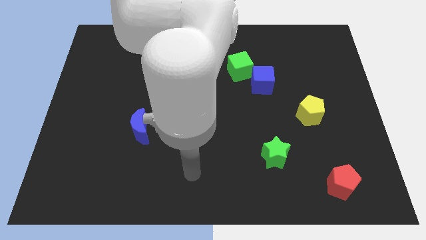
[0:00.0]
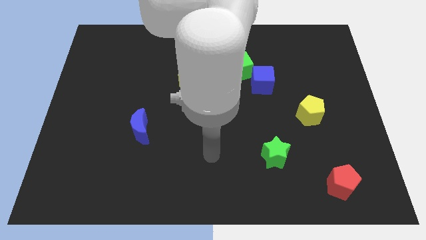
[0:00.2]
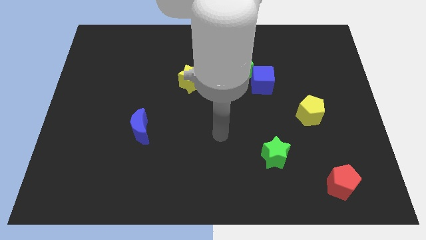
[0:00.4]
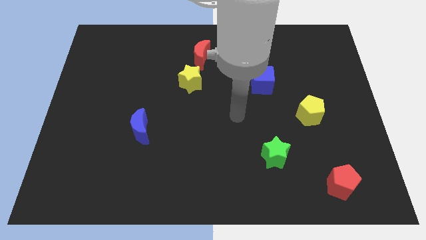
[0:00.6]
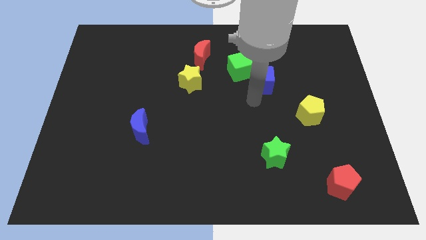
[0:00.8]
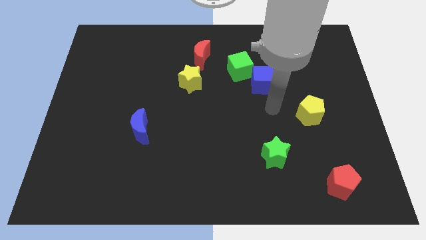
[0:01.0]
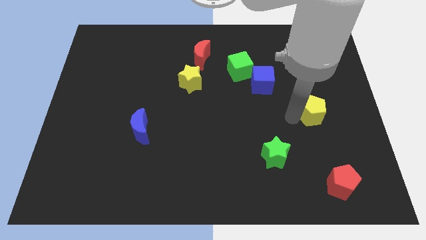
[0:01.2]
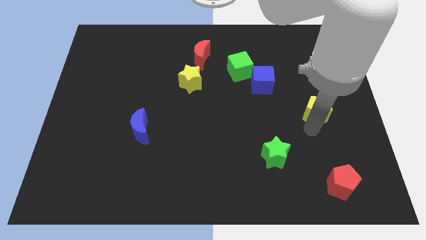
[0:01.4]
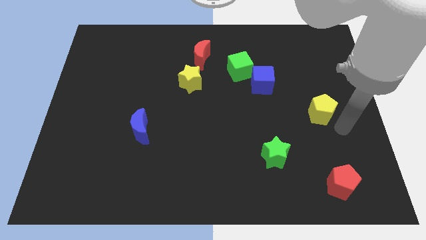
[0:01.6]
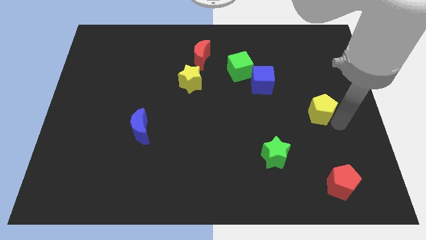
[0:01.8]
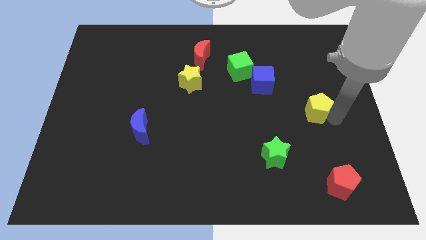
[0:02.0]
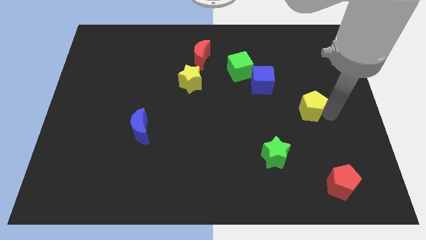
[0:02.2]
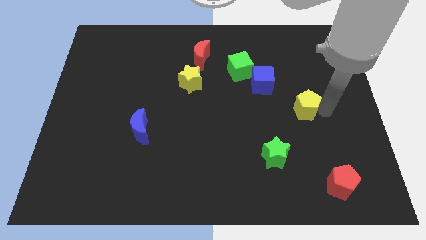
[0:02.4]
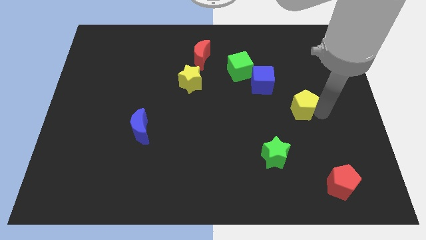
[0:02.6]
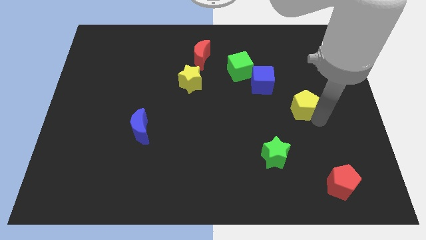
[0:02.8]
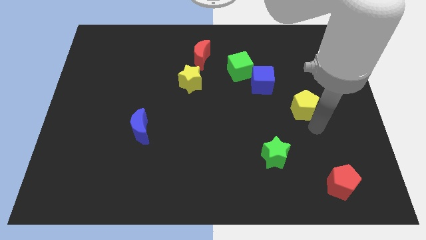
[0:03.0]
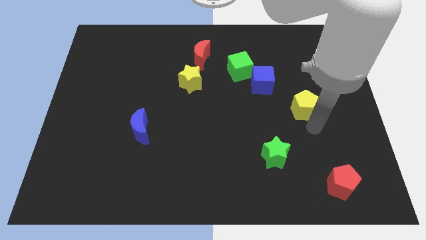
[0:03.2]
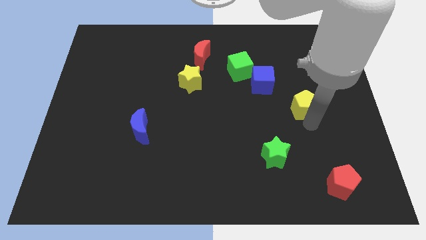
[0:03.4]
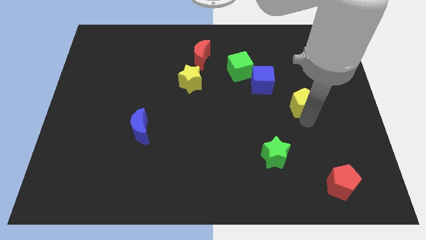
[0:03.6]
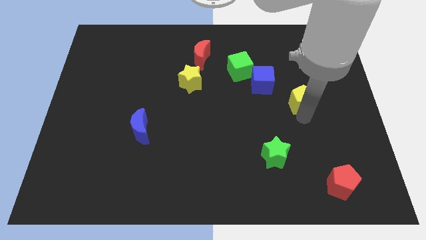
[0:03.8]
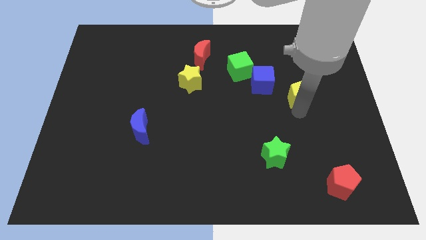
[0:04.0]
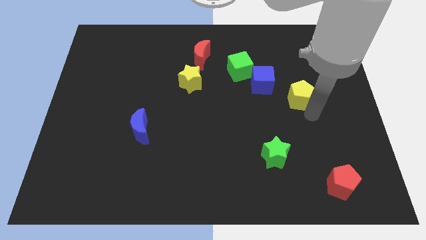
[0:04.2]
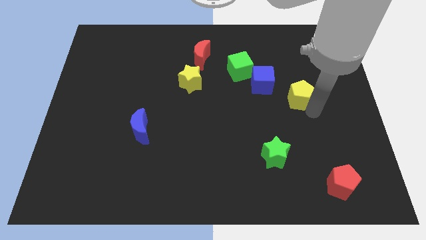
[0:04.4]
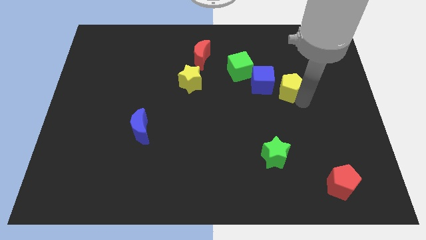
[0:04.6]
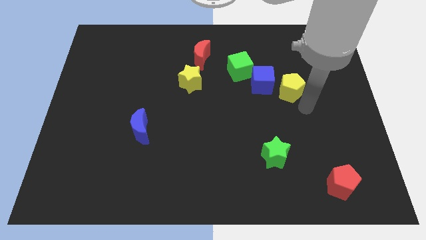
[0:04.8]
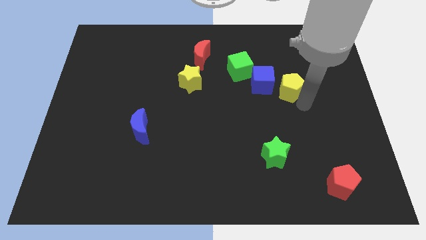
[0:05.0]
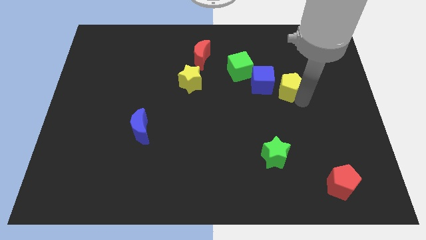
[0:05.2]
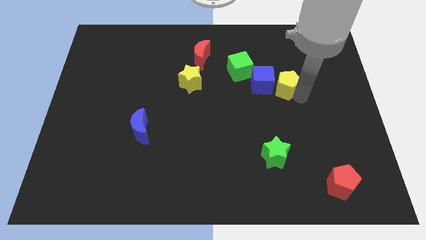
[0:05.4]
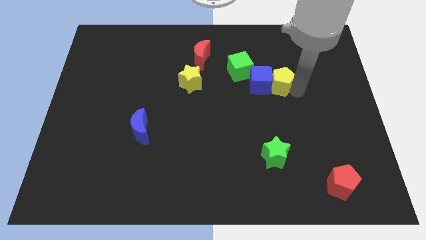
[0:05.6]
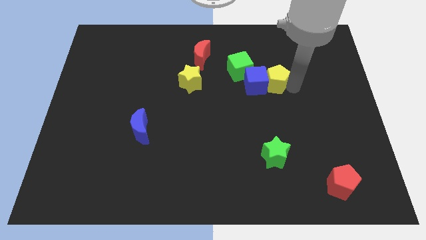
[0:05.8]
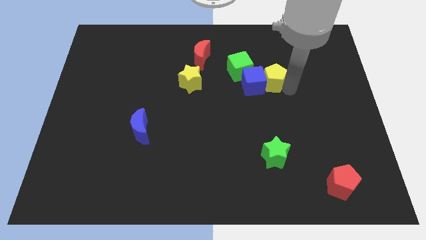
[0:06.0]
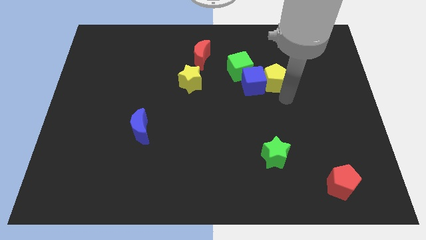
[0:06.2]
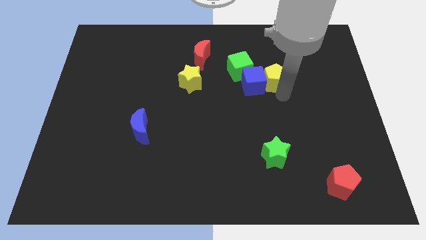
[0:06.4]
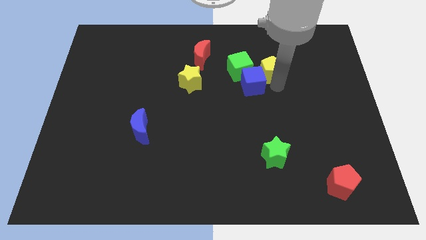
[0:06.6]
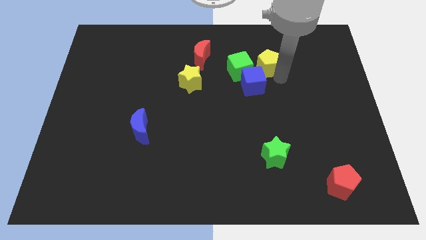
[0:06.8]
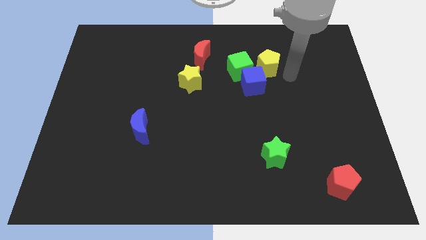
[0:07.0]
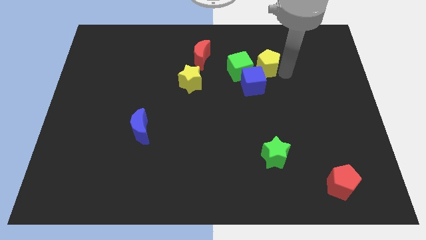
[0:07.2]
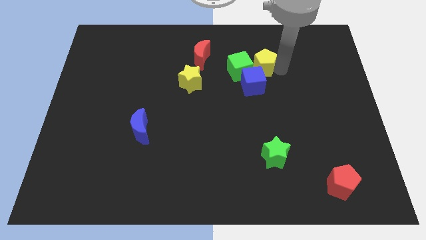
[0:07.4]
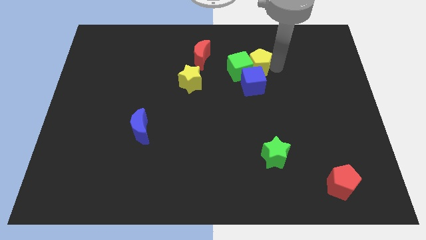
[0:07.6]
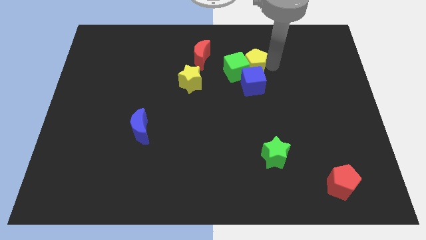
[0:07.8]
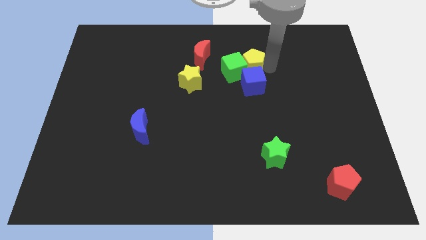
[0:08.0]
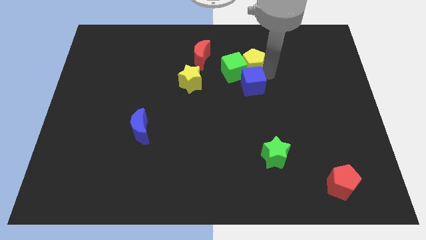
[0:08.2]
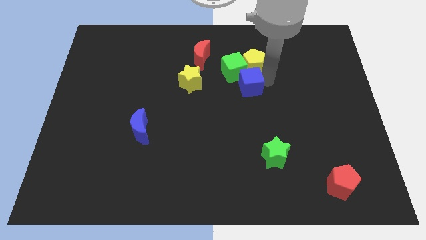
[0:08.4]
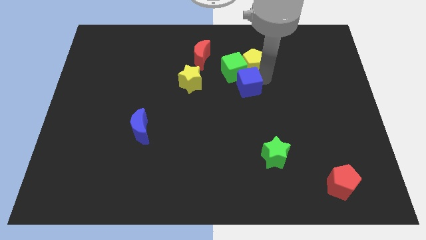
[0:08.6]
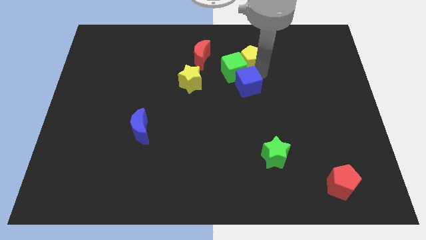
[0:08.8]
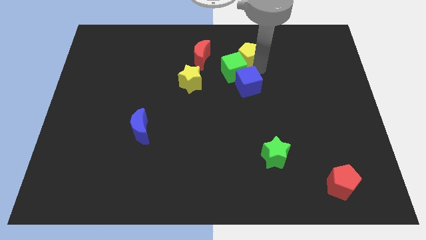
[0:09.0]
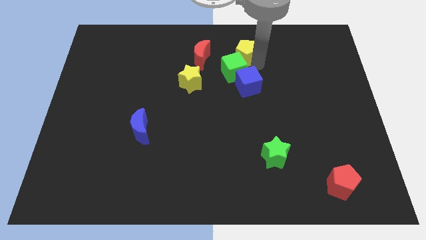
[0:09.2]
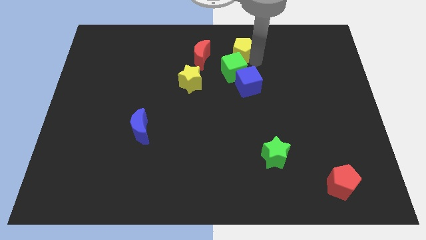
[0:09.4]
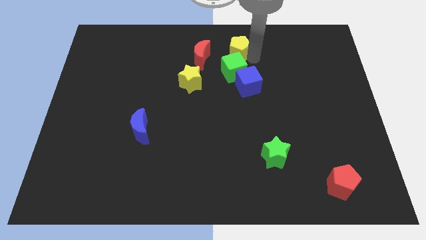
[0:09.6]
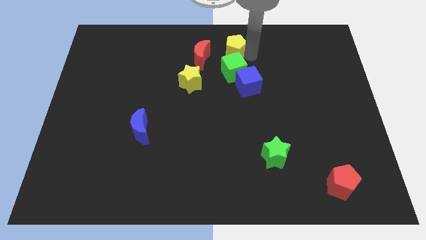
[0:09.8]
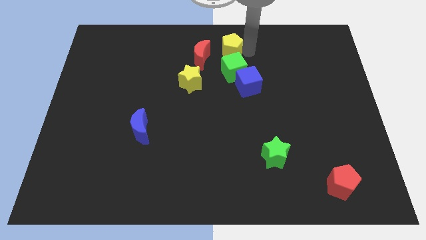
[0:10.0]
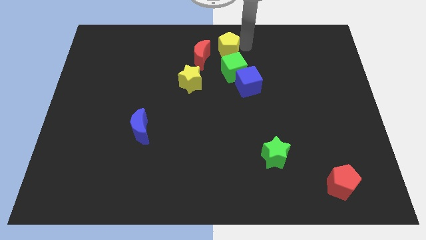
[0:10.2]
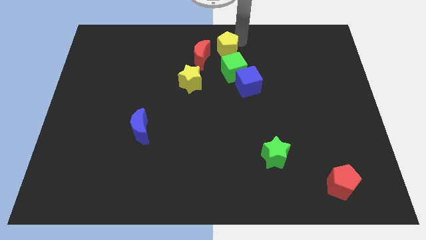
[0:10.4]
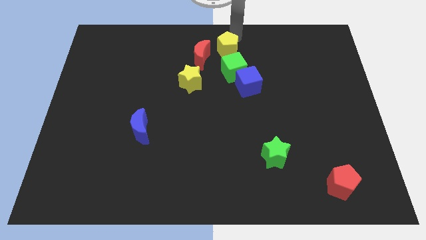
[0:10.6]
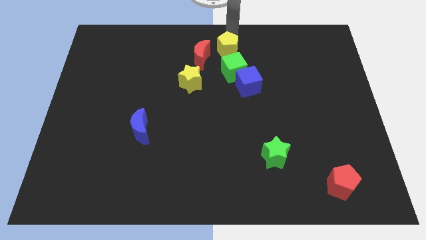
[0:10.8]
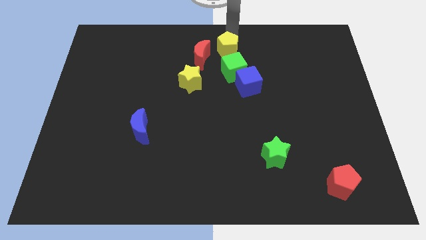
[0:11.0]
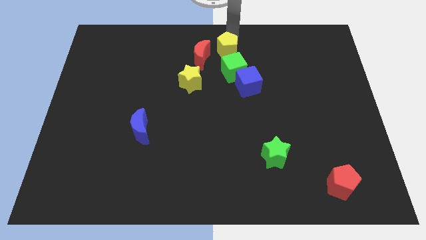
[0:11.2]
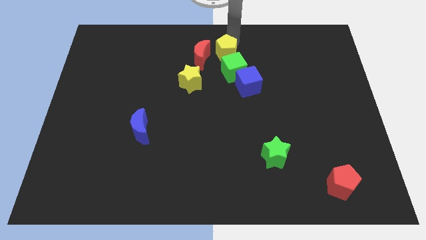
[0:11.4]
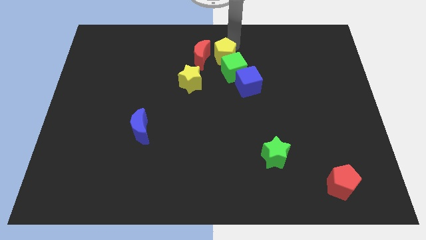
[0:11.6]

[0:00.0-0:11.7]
move the yellow pentagon towards the red moon
